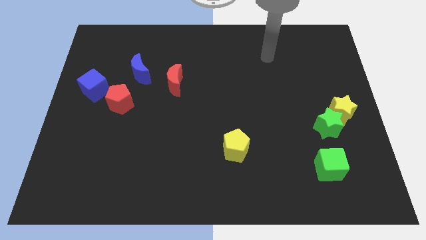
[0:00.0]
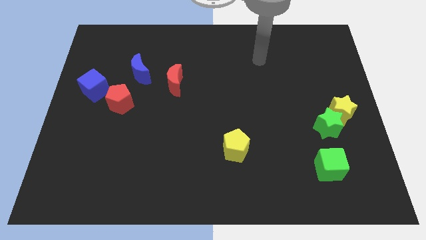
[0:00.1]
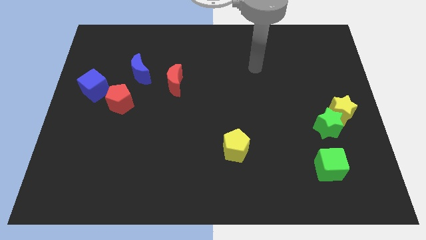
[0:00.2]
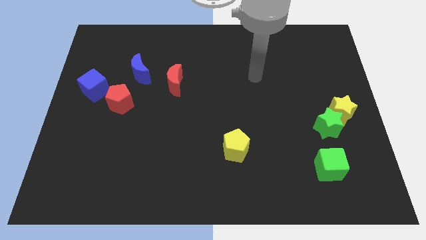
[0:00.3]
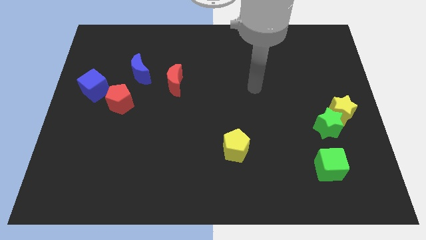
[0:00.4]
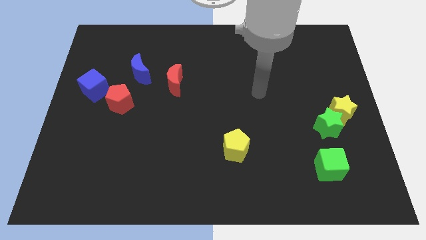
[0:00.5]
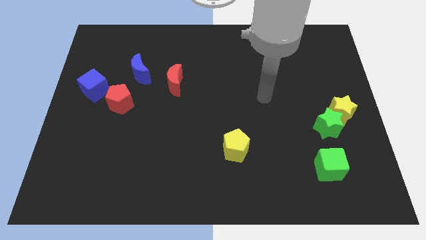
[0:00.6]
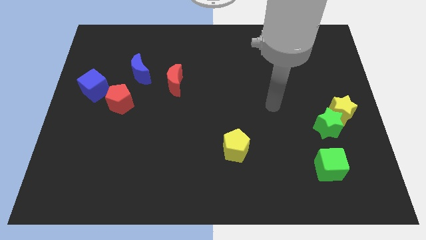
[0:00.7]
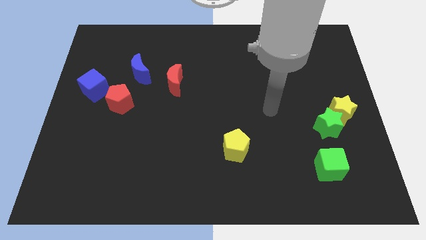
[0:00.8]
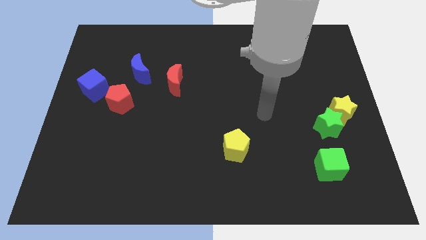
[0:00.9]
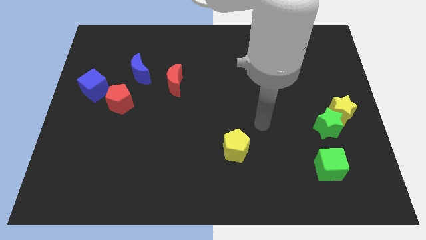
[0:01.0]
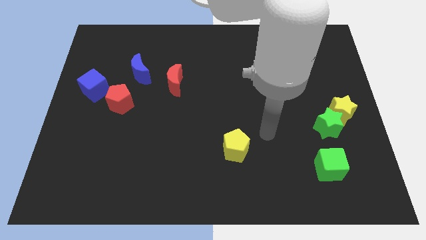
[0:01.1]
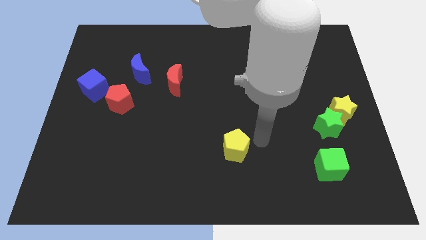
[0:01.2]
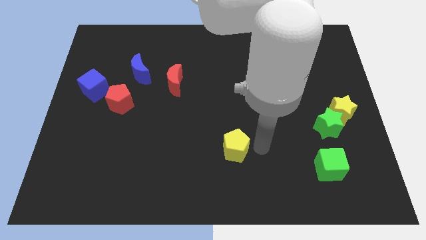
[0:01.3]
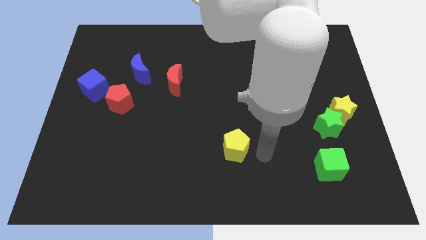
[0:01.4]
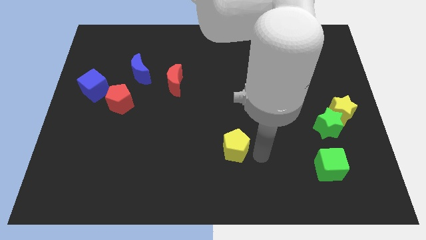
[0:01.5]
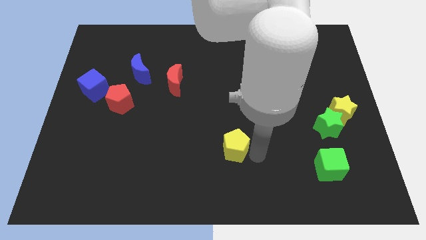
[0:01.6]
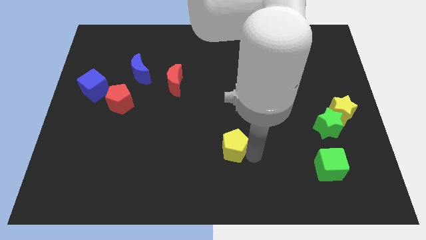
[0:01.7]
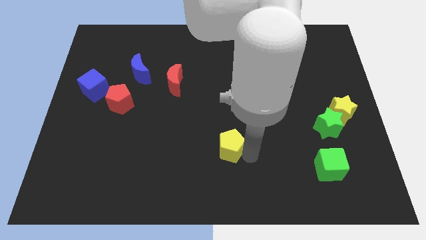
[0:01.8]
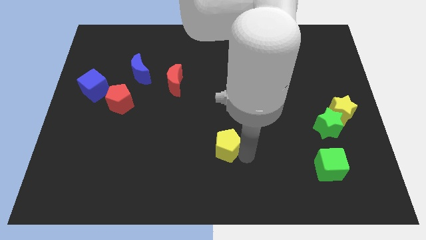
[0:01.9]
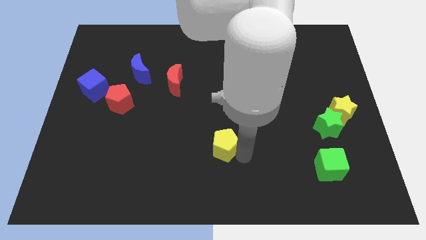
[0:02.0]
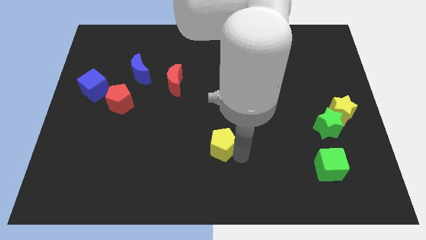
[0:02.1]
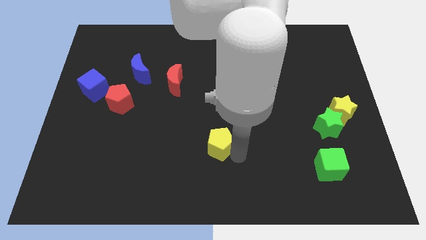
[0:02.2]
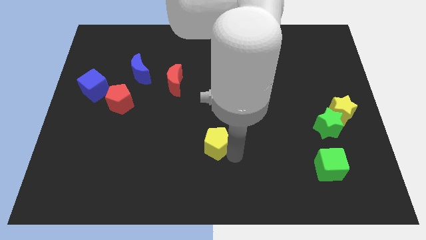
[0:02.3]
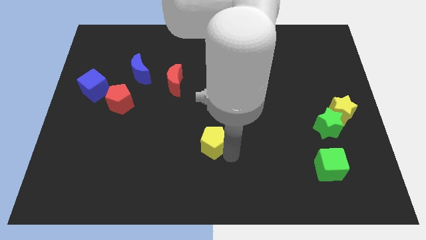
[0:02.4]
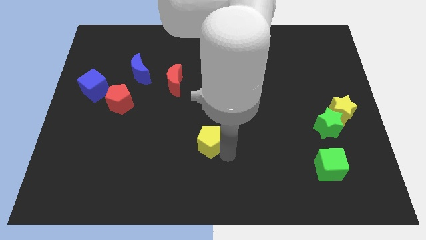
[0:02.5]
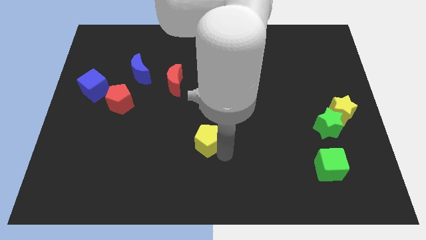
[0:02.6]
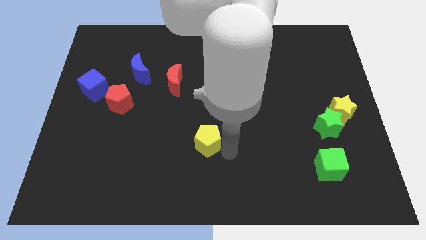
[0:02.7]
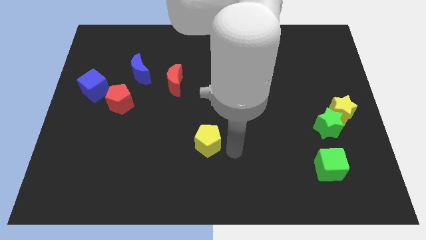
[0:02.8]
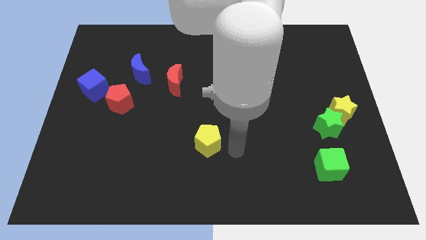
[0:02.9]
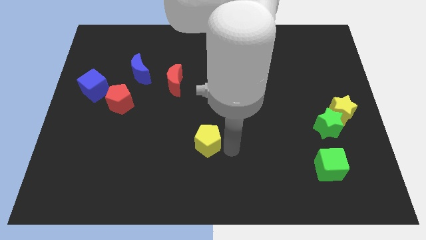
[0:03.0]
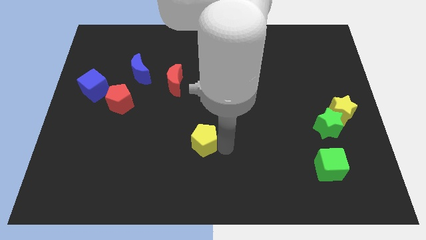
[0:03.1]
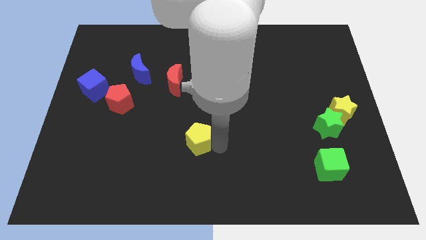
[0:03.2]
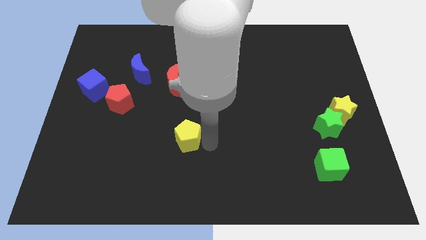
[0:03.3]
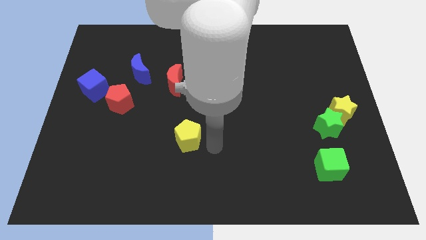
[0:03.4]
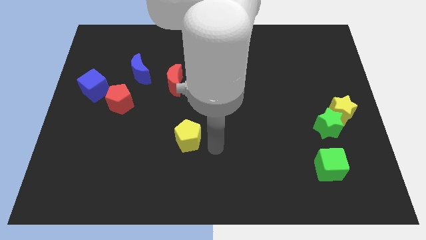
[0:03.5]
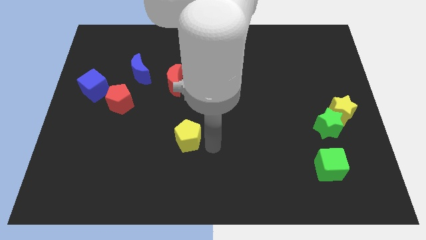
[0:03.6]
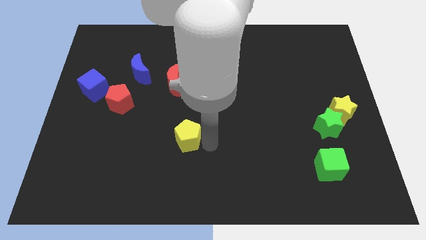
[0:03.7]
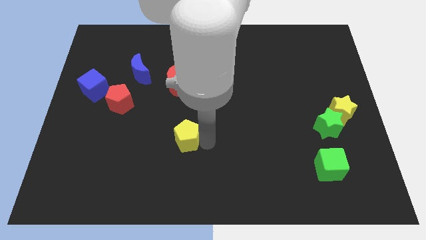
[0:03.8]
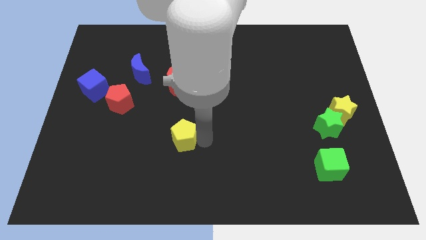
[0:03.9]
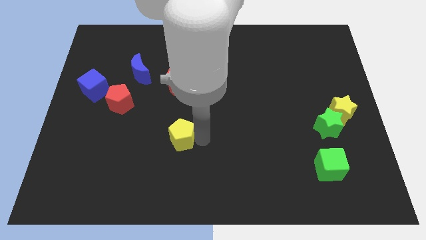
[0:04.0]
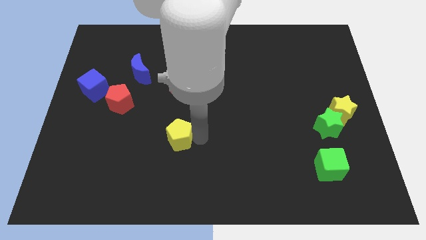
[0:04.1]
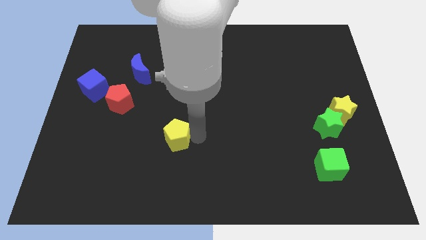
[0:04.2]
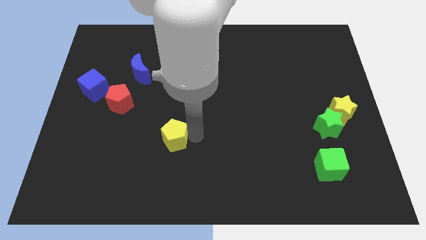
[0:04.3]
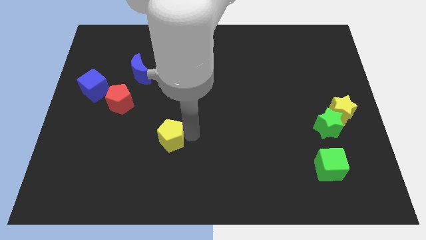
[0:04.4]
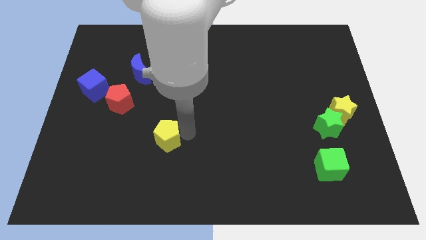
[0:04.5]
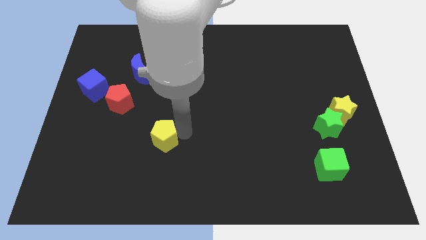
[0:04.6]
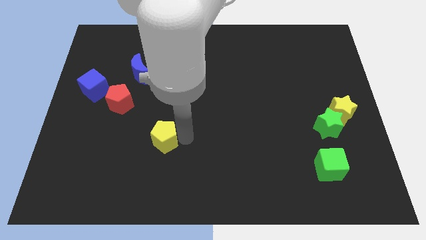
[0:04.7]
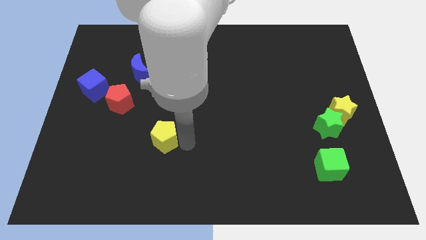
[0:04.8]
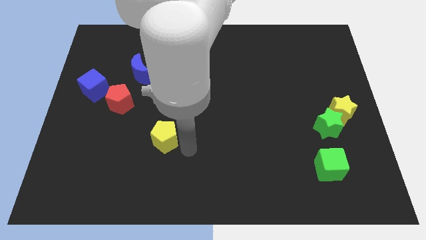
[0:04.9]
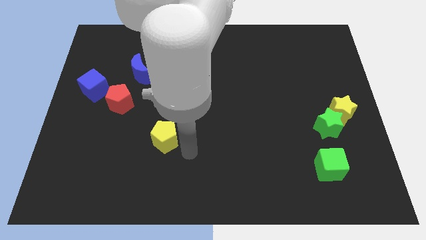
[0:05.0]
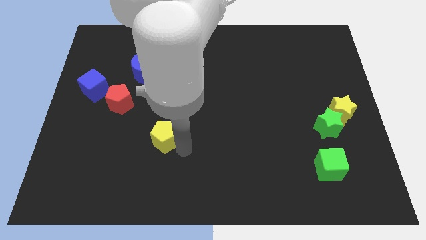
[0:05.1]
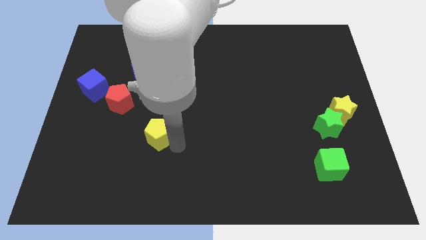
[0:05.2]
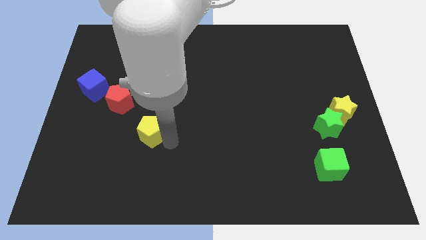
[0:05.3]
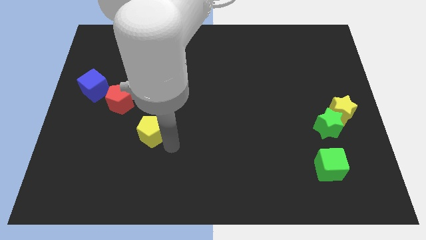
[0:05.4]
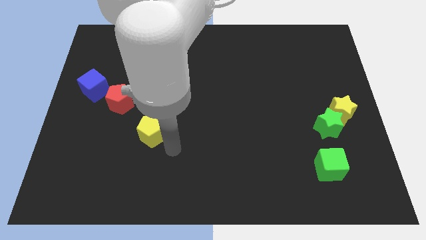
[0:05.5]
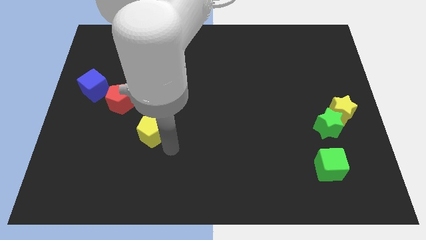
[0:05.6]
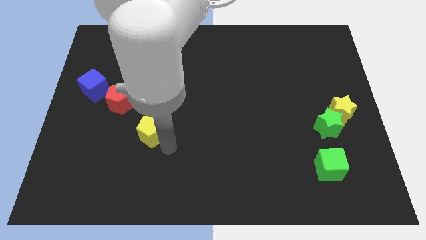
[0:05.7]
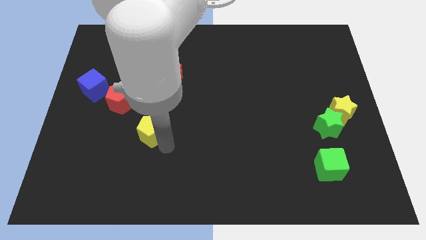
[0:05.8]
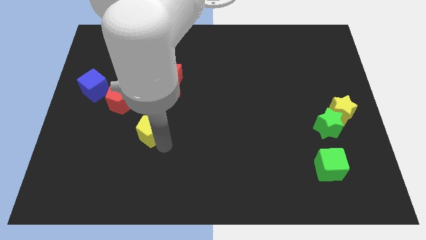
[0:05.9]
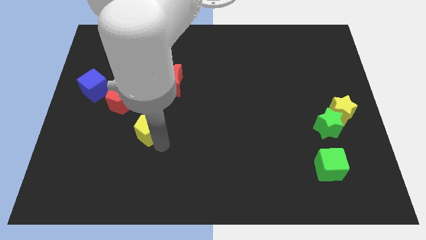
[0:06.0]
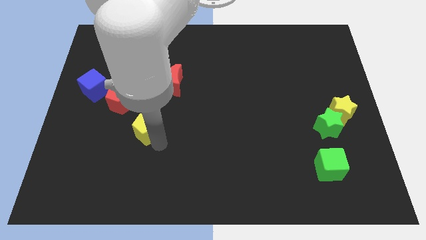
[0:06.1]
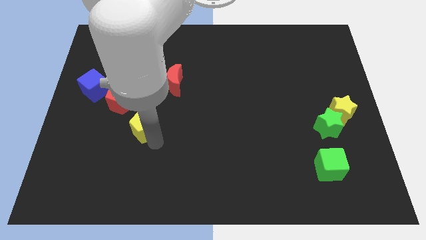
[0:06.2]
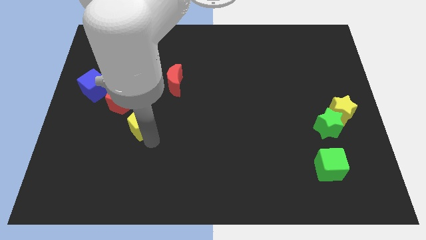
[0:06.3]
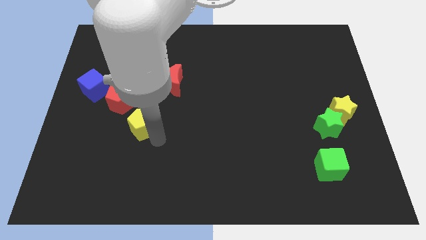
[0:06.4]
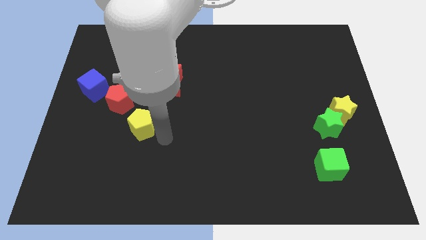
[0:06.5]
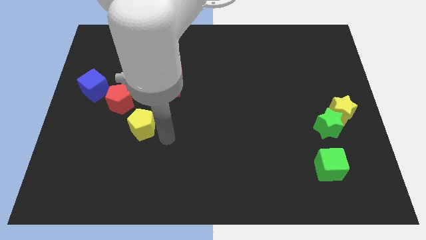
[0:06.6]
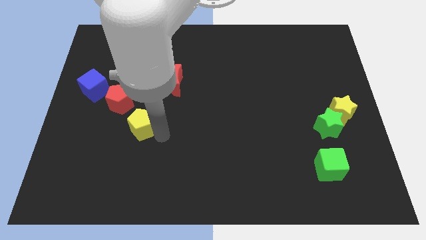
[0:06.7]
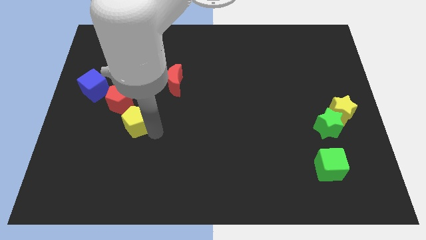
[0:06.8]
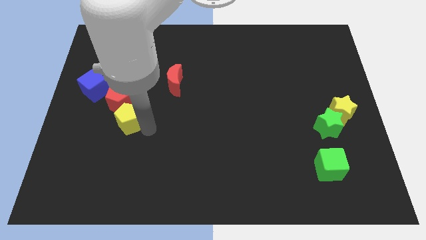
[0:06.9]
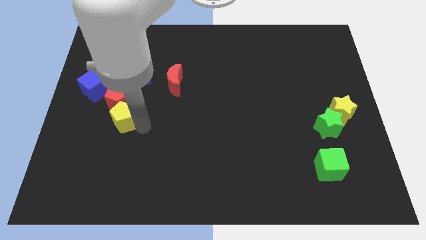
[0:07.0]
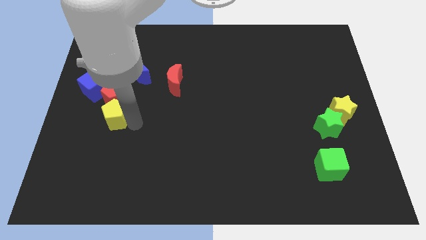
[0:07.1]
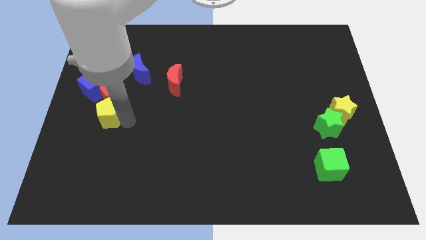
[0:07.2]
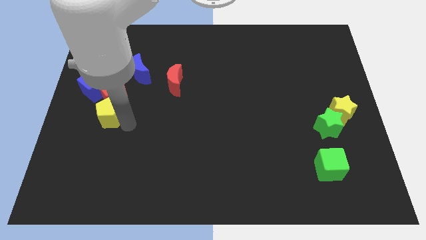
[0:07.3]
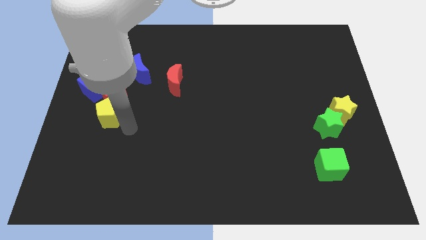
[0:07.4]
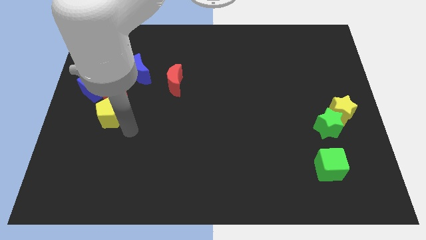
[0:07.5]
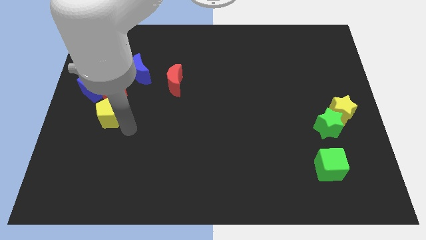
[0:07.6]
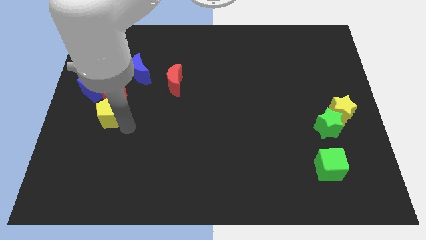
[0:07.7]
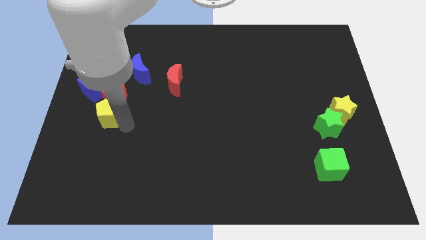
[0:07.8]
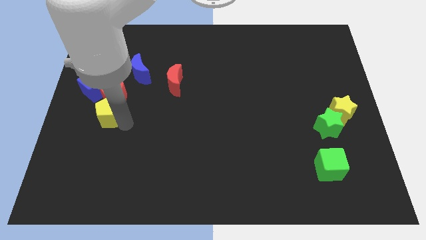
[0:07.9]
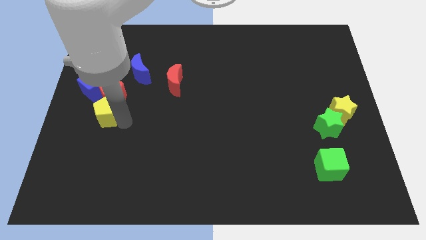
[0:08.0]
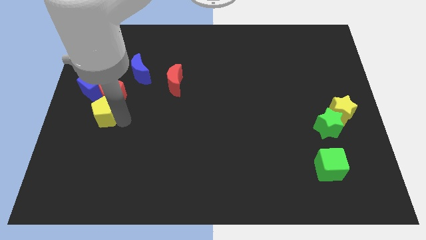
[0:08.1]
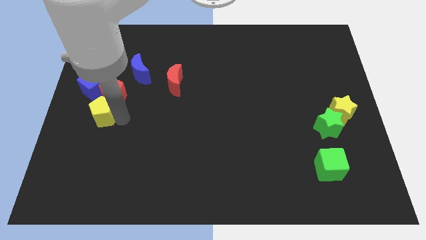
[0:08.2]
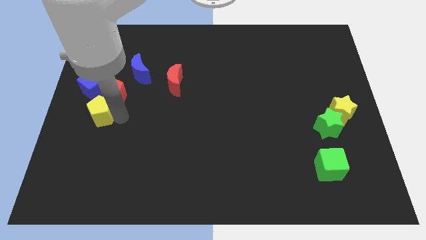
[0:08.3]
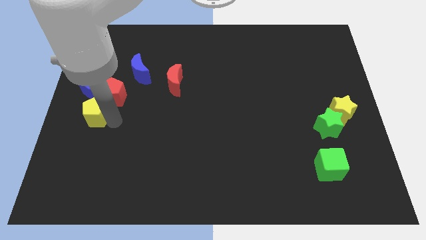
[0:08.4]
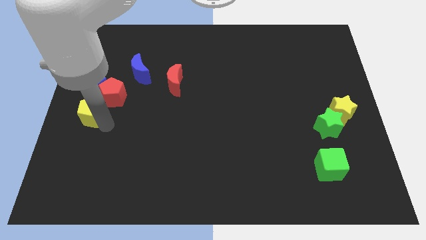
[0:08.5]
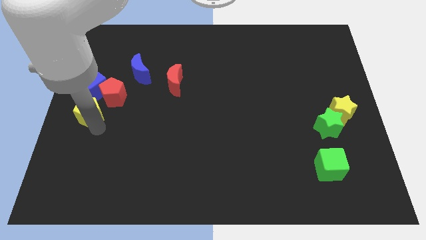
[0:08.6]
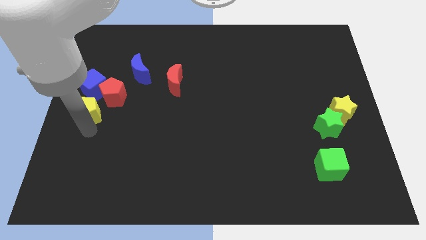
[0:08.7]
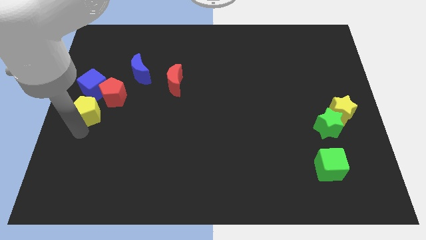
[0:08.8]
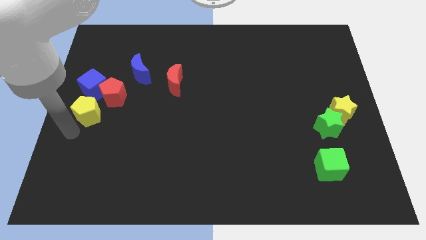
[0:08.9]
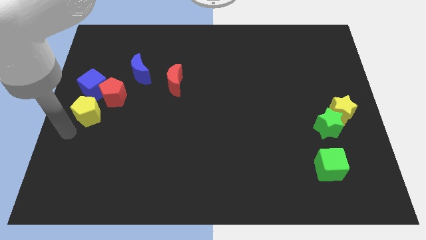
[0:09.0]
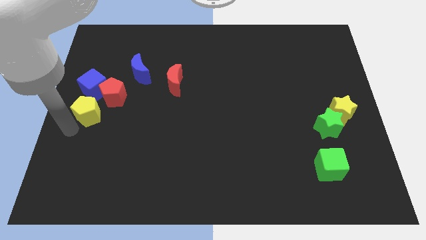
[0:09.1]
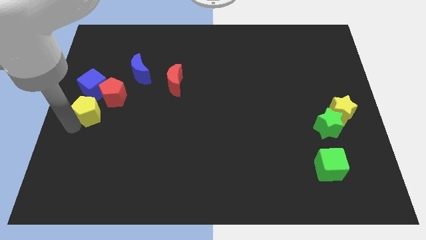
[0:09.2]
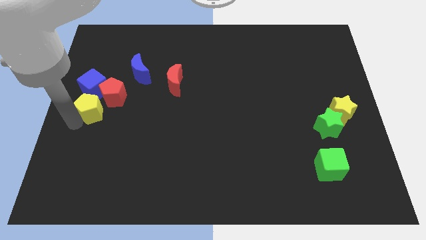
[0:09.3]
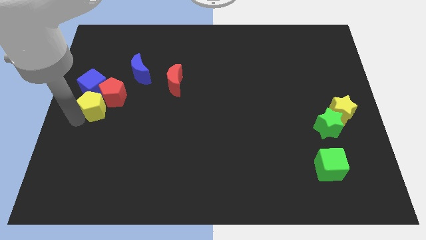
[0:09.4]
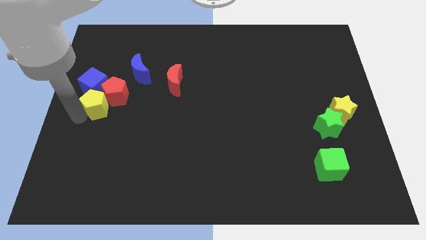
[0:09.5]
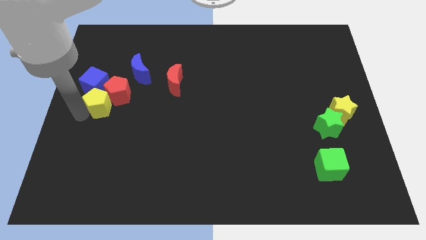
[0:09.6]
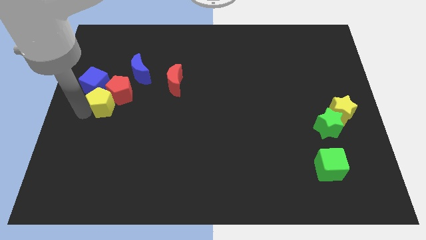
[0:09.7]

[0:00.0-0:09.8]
put the yellow pentagon to the bottom left of the blue moon
